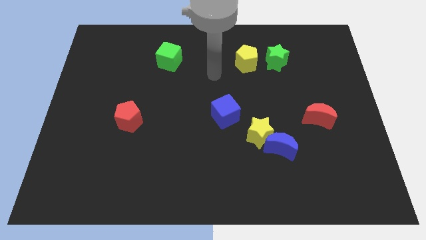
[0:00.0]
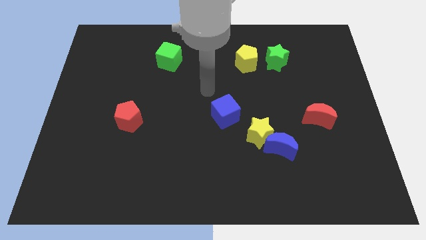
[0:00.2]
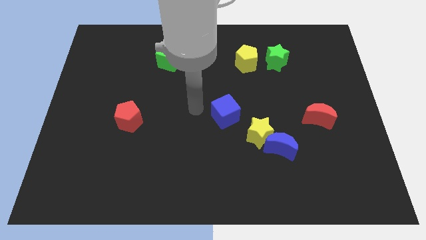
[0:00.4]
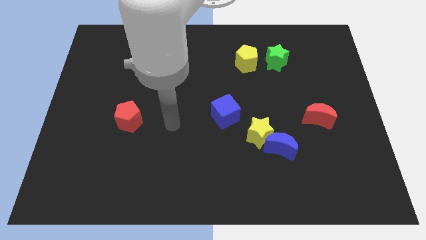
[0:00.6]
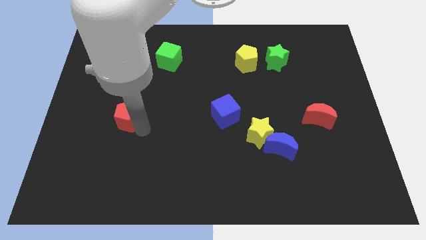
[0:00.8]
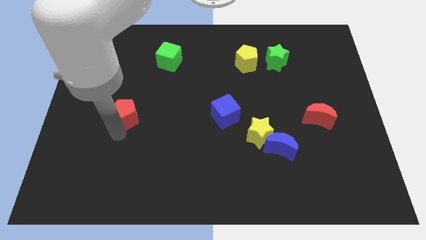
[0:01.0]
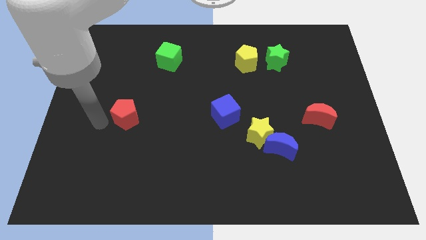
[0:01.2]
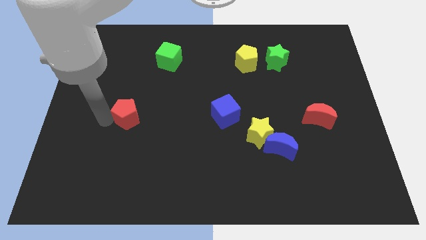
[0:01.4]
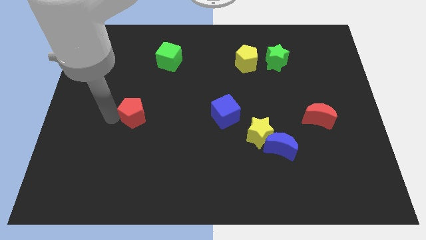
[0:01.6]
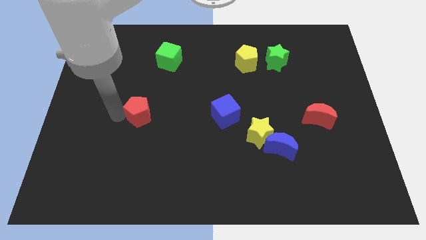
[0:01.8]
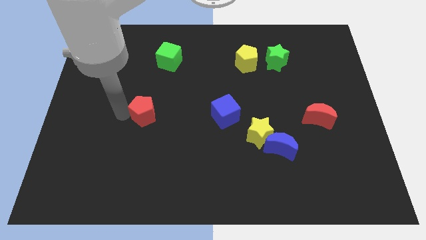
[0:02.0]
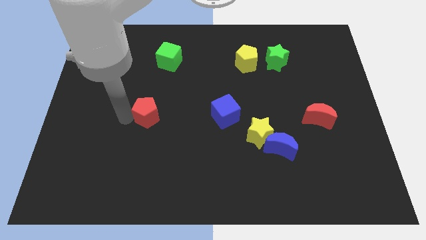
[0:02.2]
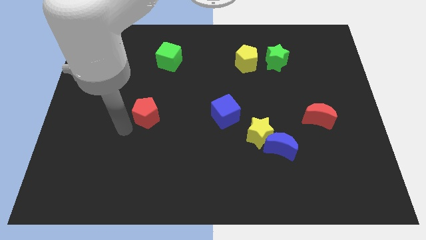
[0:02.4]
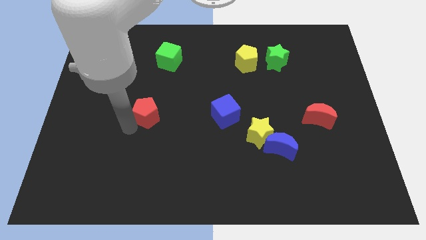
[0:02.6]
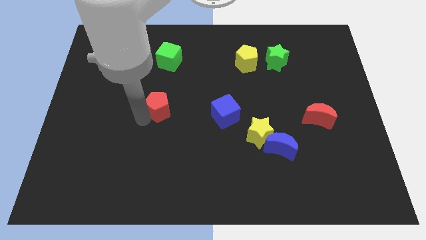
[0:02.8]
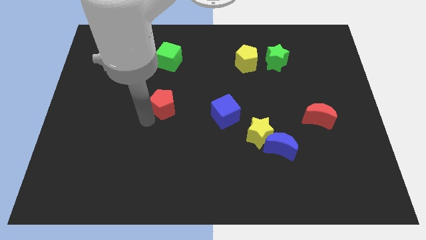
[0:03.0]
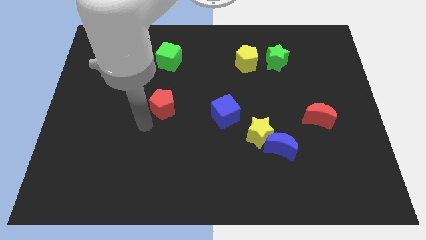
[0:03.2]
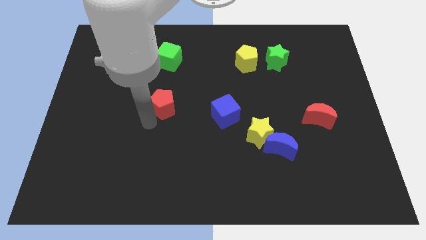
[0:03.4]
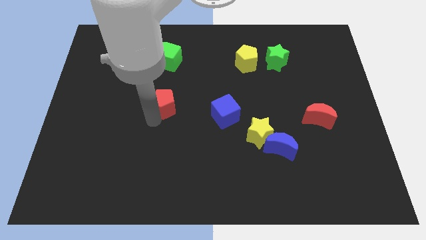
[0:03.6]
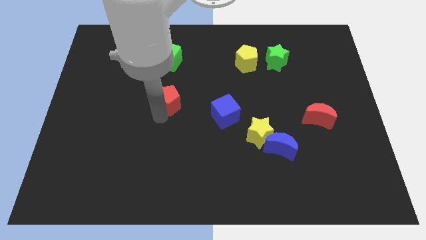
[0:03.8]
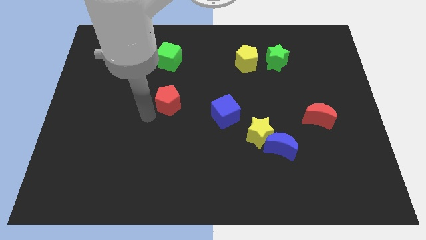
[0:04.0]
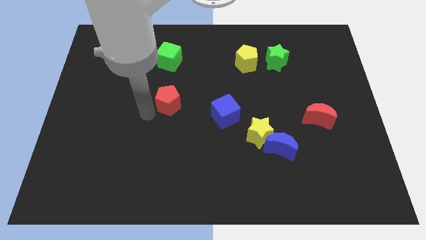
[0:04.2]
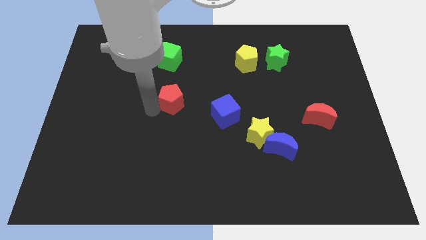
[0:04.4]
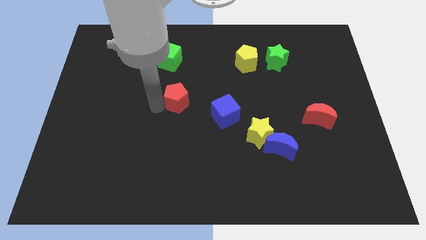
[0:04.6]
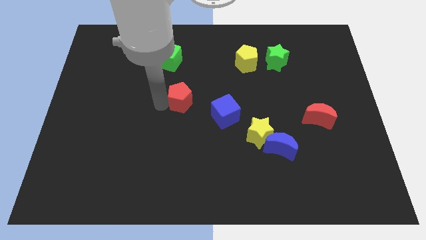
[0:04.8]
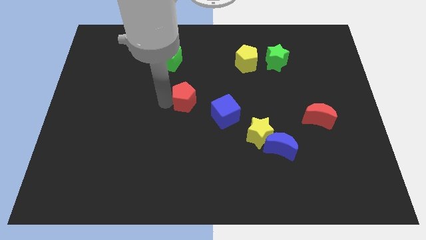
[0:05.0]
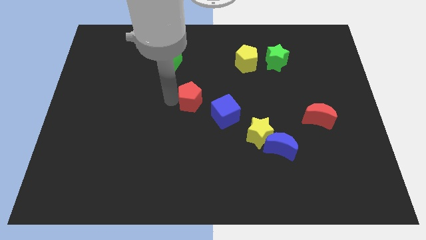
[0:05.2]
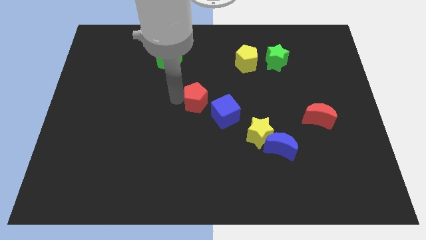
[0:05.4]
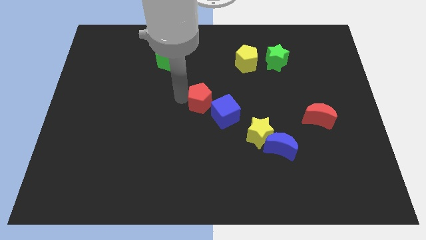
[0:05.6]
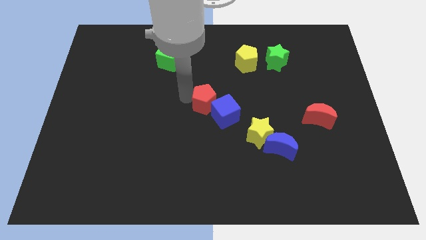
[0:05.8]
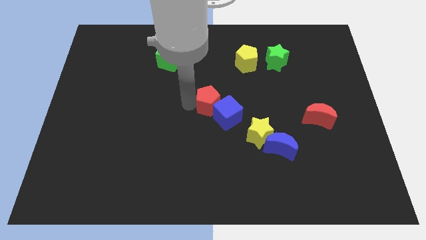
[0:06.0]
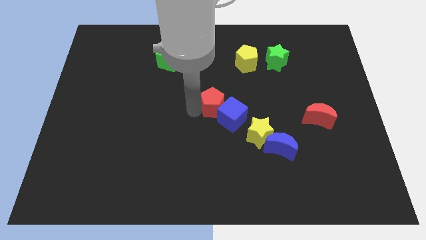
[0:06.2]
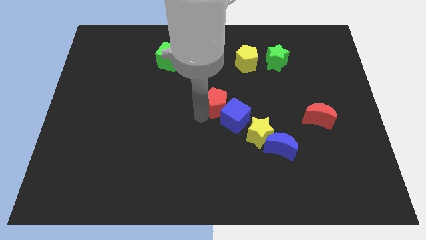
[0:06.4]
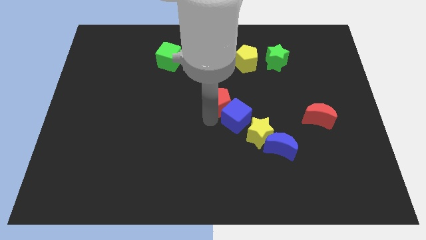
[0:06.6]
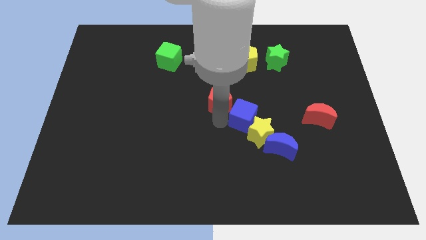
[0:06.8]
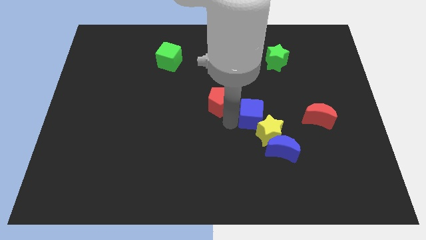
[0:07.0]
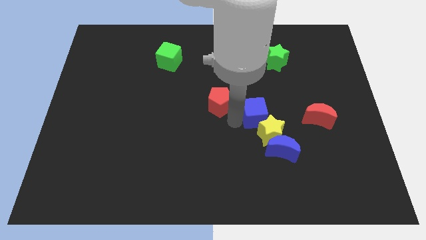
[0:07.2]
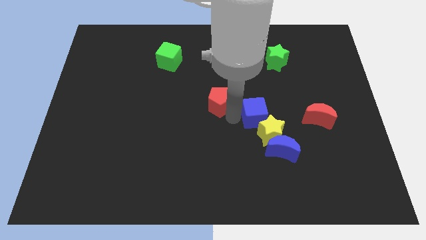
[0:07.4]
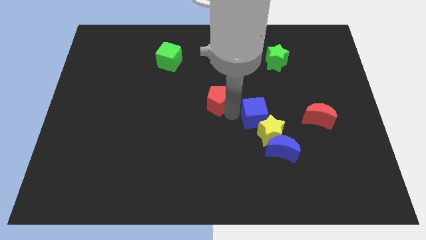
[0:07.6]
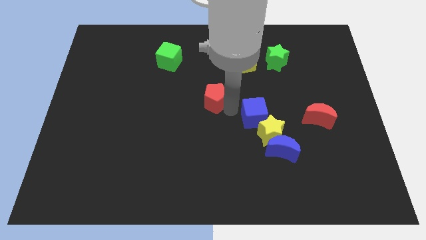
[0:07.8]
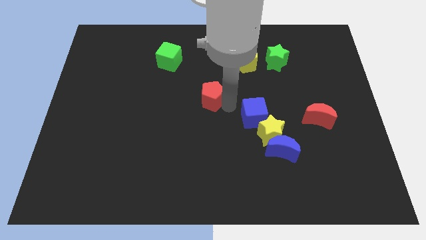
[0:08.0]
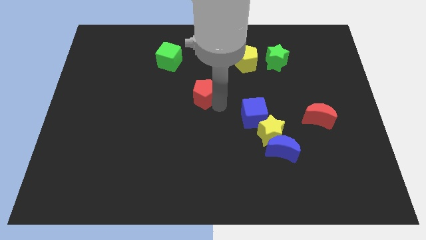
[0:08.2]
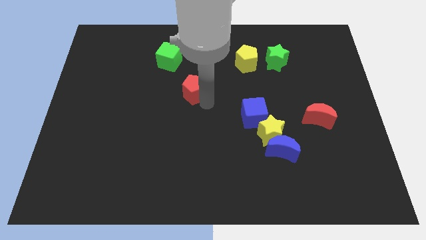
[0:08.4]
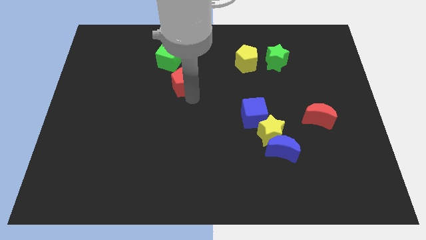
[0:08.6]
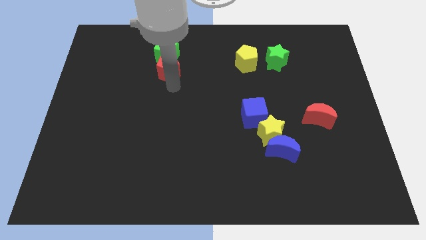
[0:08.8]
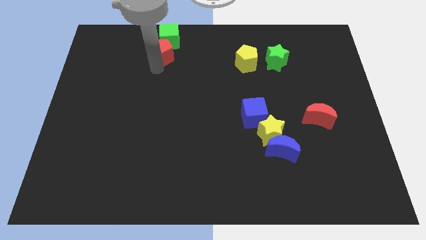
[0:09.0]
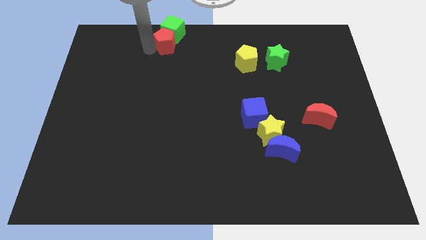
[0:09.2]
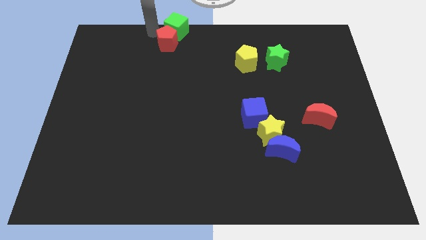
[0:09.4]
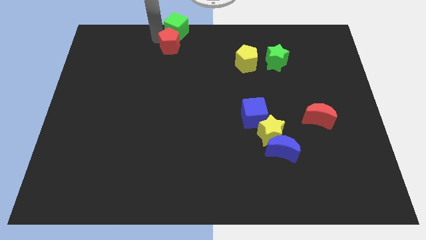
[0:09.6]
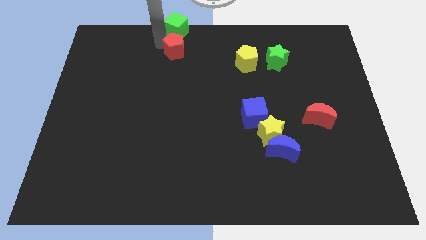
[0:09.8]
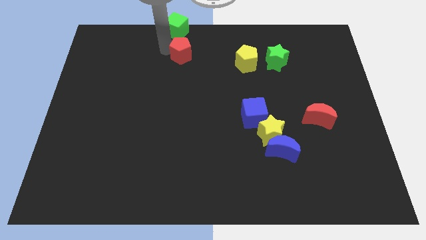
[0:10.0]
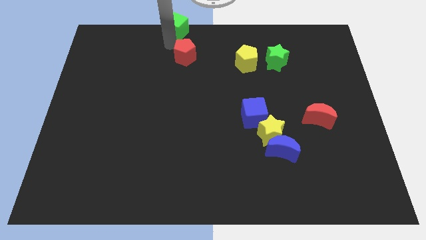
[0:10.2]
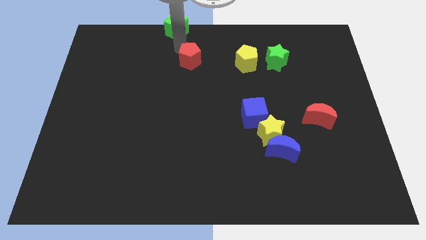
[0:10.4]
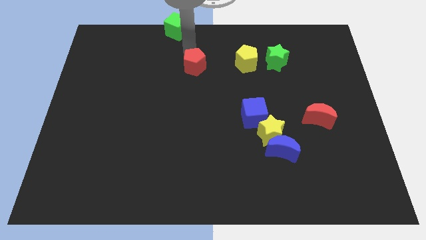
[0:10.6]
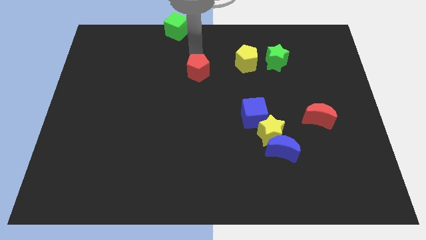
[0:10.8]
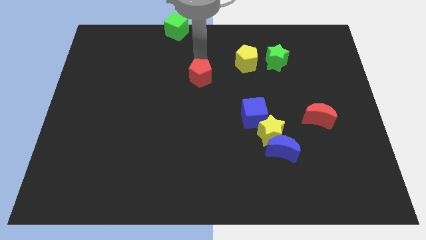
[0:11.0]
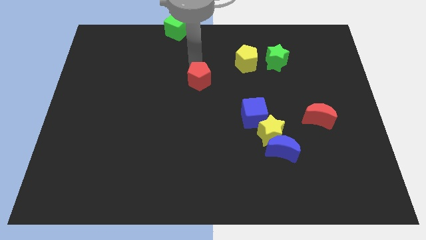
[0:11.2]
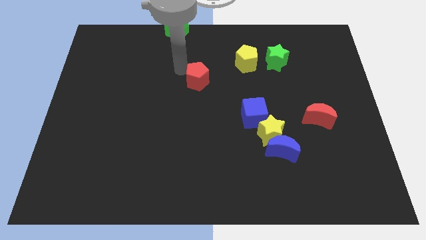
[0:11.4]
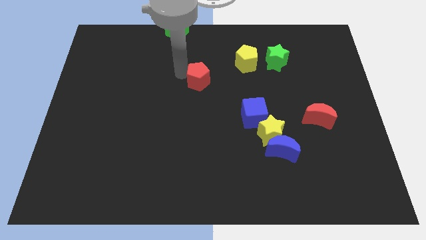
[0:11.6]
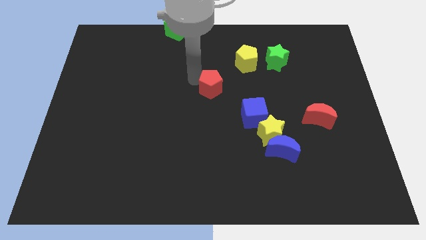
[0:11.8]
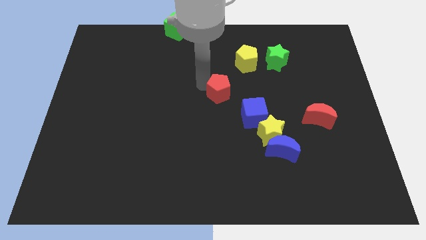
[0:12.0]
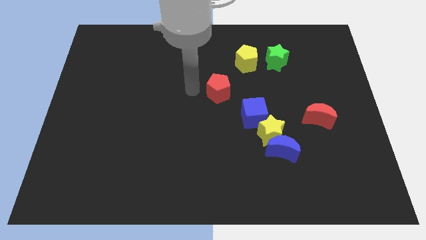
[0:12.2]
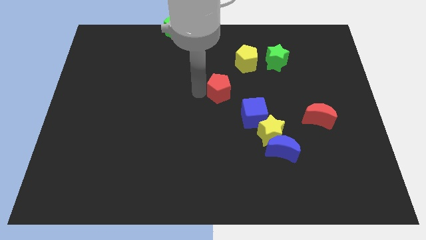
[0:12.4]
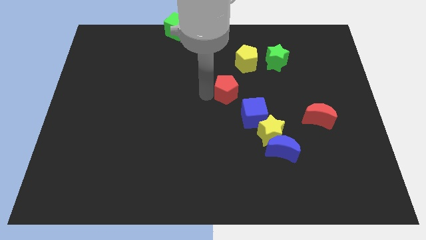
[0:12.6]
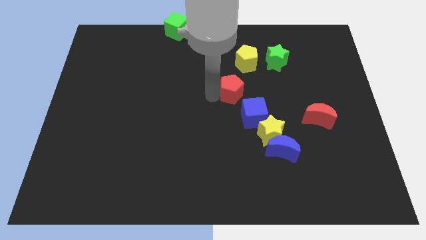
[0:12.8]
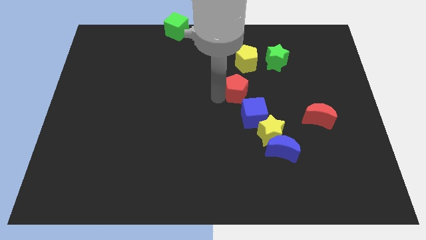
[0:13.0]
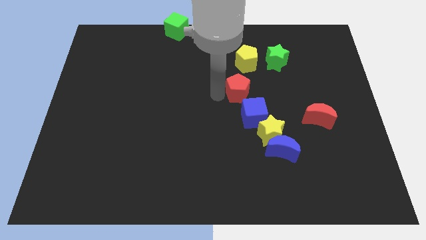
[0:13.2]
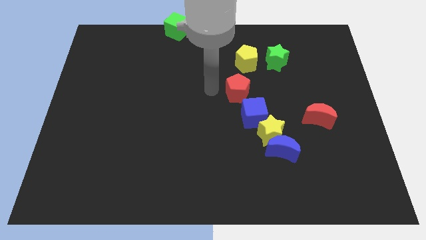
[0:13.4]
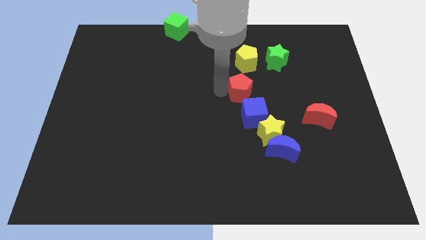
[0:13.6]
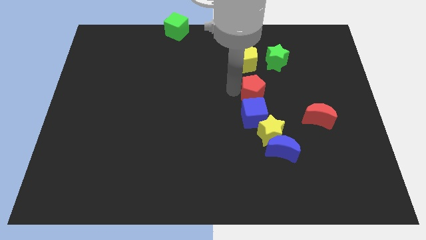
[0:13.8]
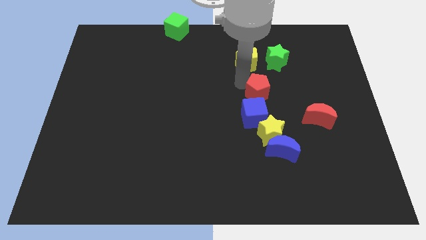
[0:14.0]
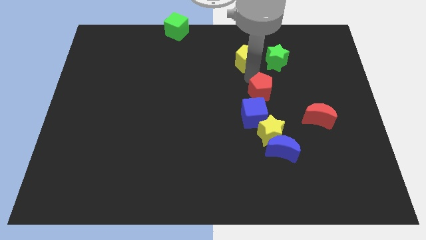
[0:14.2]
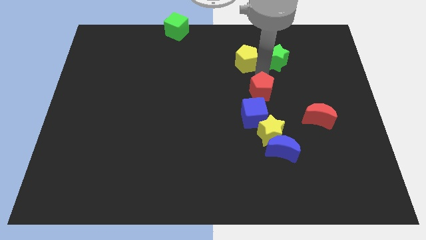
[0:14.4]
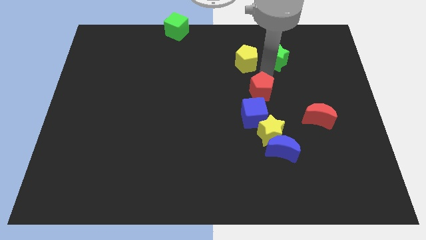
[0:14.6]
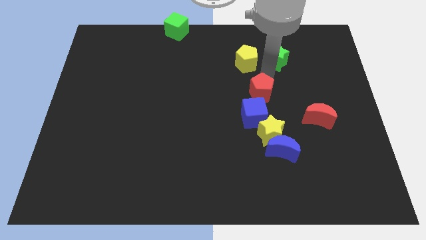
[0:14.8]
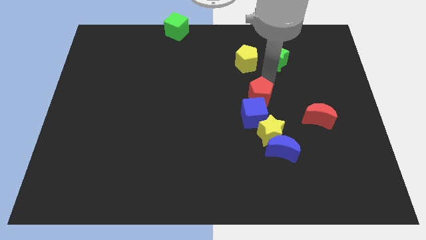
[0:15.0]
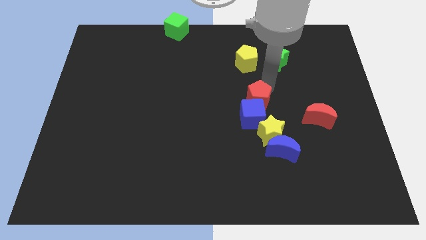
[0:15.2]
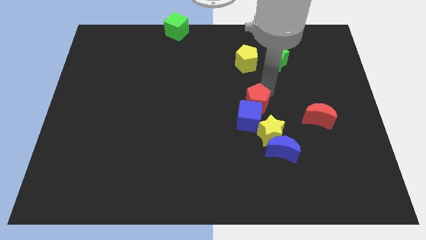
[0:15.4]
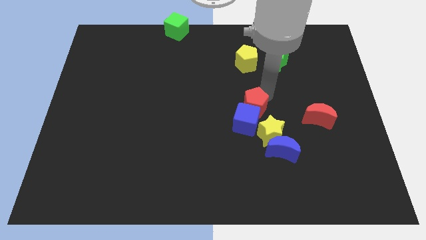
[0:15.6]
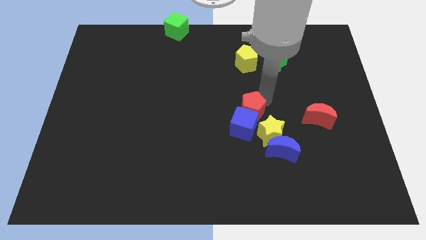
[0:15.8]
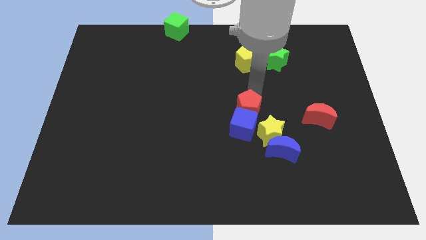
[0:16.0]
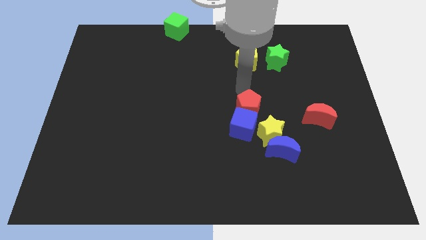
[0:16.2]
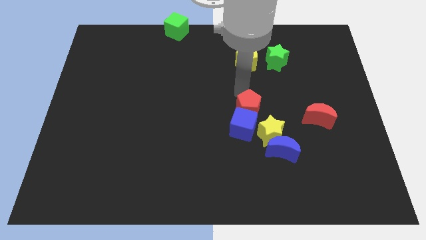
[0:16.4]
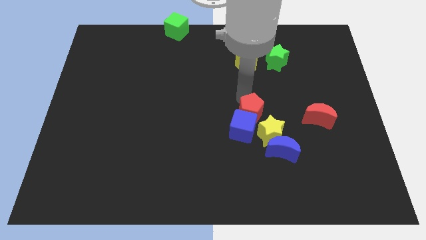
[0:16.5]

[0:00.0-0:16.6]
put the red pentagon diagonally up and to the left of the blue moon
